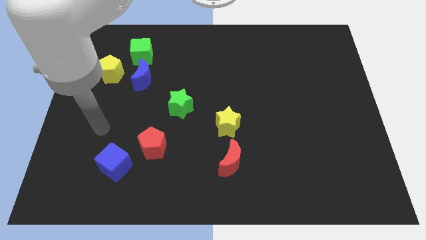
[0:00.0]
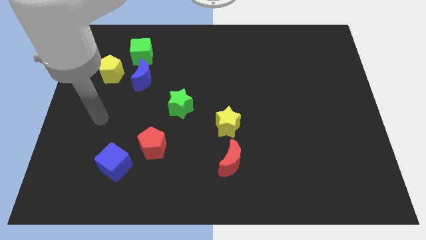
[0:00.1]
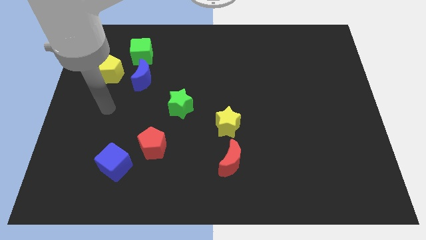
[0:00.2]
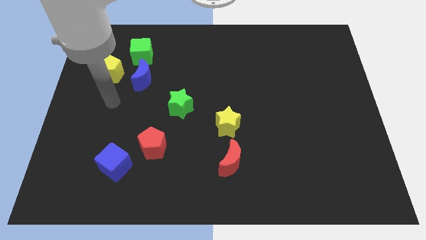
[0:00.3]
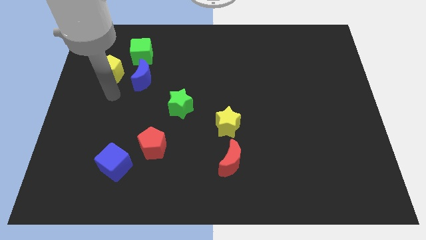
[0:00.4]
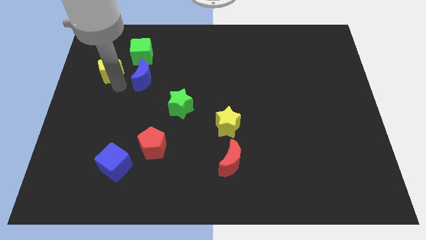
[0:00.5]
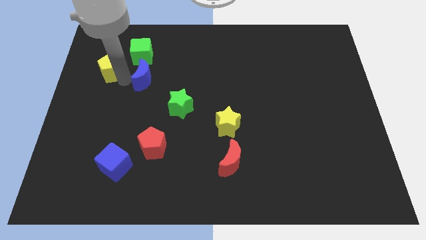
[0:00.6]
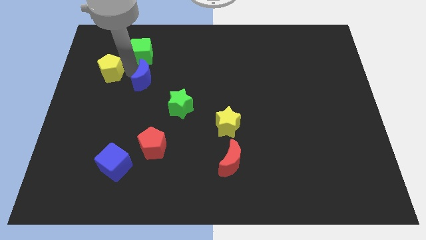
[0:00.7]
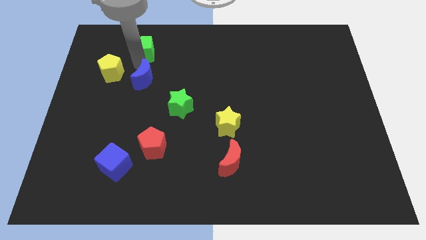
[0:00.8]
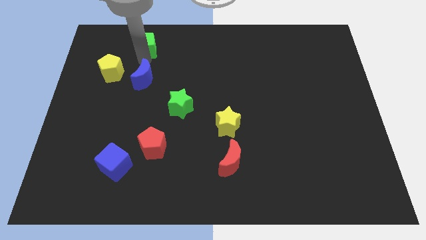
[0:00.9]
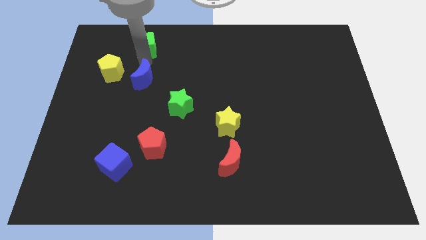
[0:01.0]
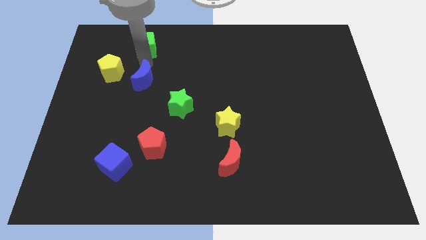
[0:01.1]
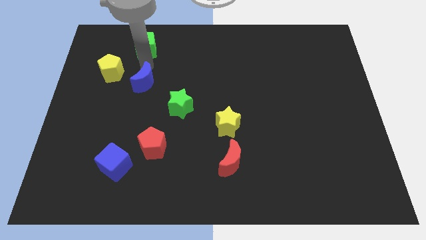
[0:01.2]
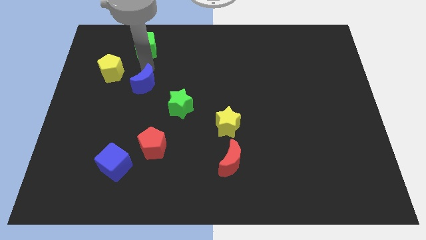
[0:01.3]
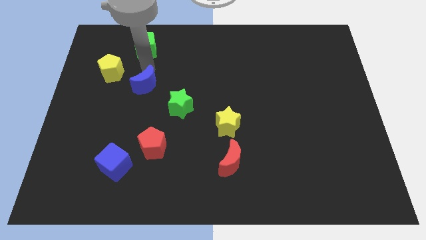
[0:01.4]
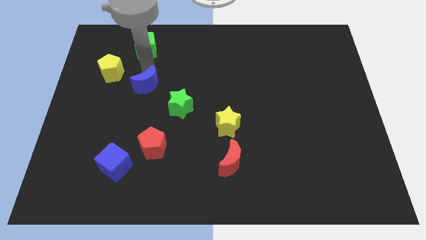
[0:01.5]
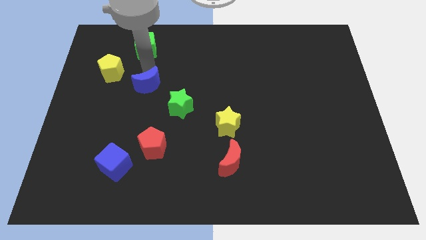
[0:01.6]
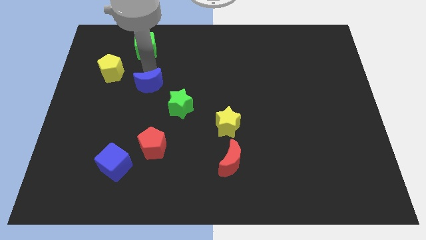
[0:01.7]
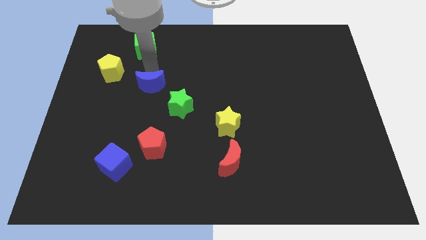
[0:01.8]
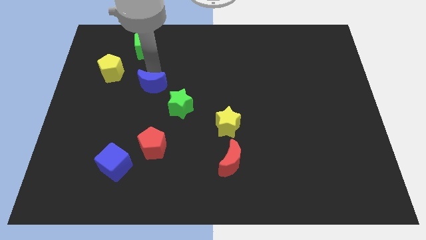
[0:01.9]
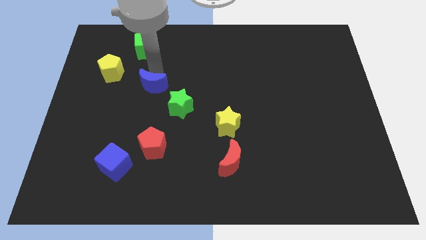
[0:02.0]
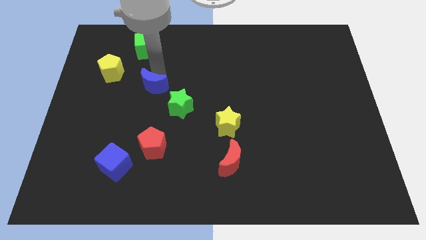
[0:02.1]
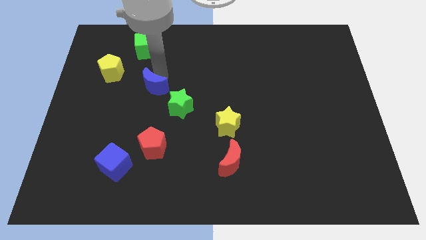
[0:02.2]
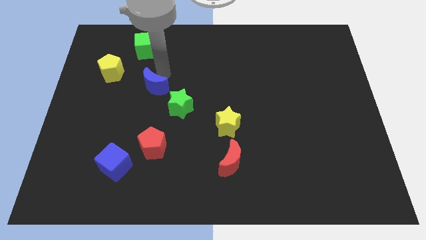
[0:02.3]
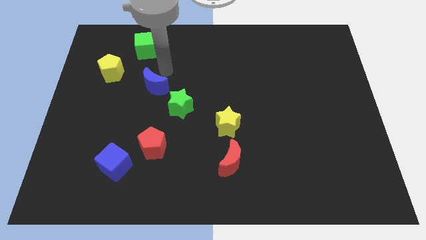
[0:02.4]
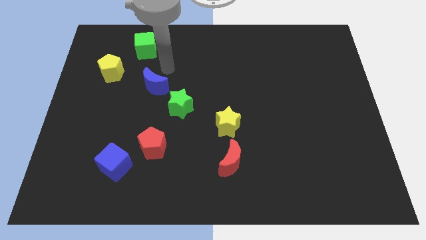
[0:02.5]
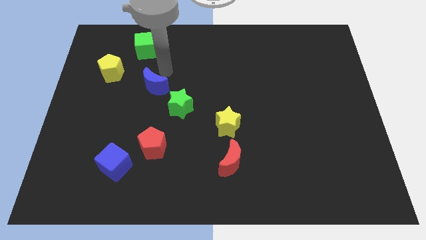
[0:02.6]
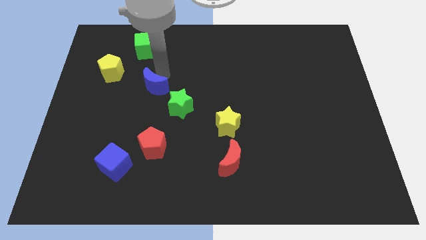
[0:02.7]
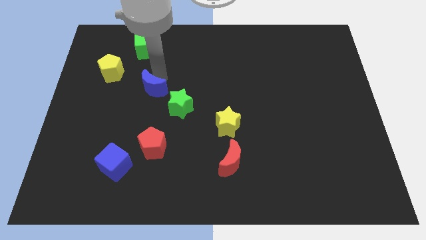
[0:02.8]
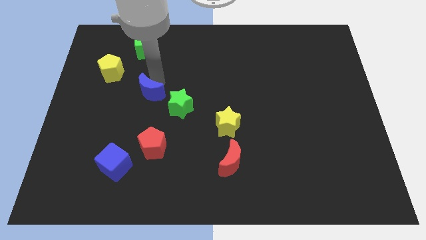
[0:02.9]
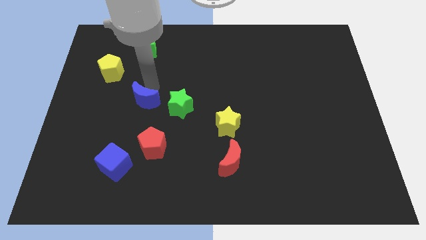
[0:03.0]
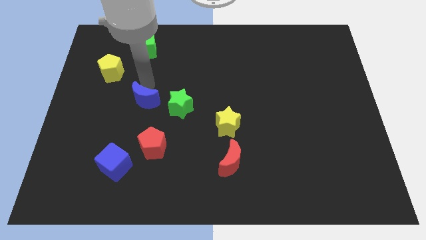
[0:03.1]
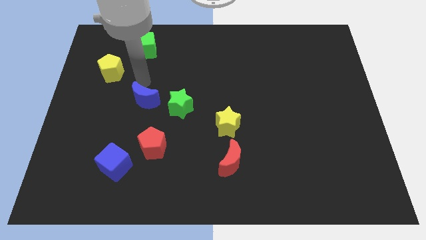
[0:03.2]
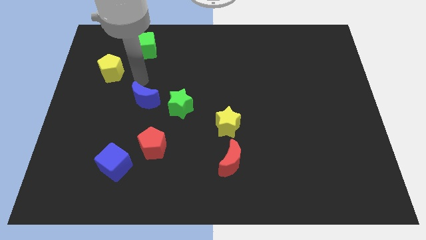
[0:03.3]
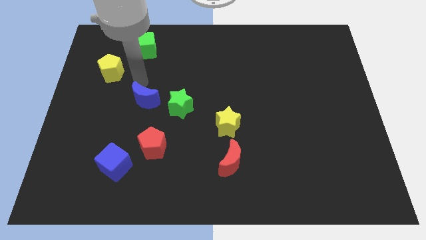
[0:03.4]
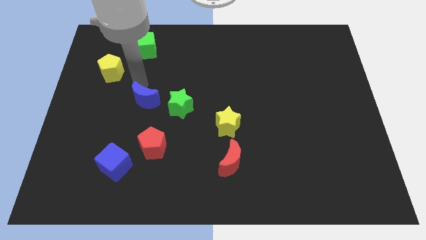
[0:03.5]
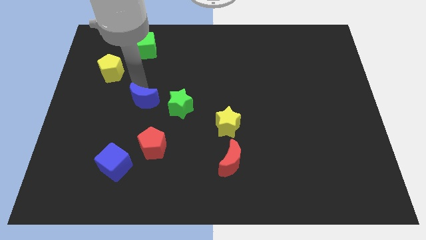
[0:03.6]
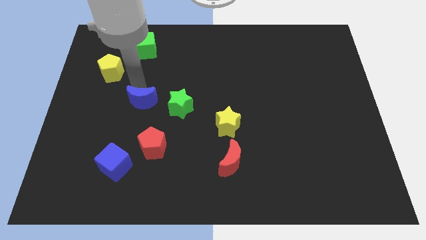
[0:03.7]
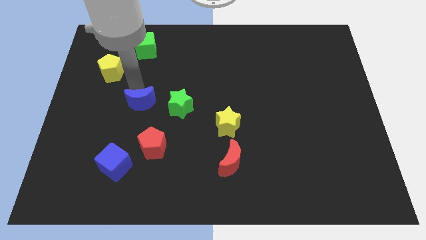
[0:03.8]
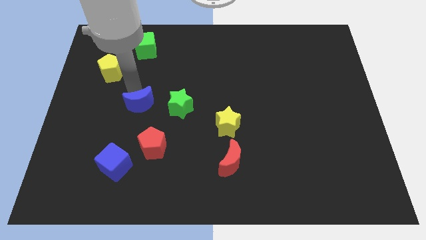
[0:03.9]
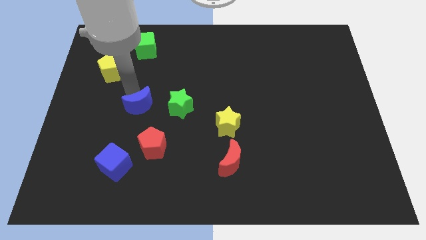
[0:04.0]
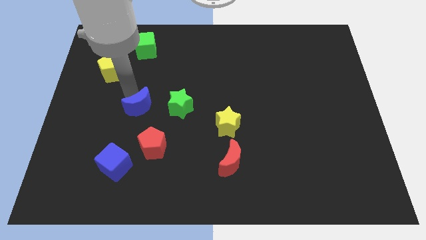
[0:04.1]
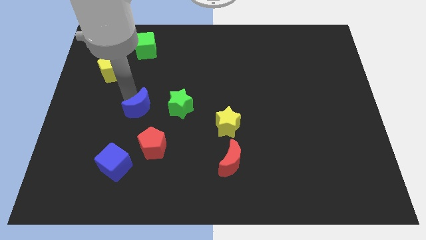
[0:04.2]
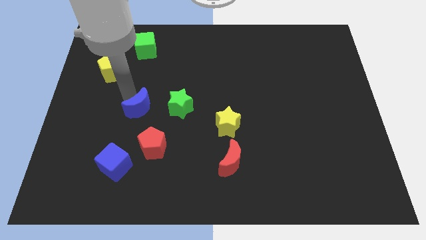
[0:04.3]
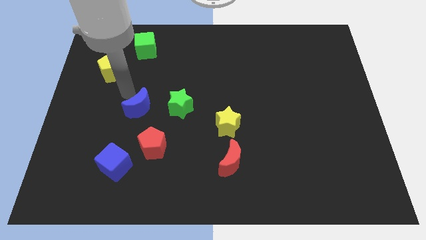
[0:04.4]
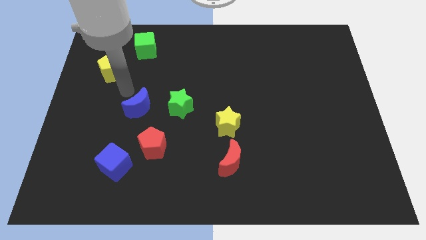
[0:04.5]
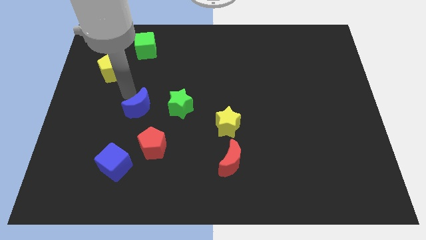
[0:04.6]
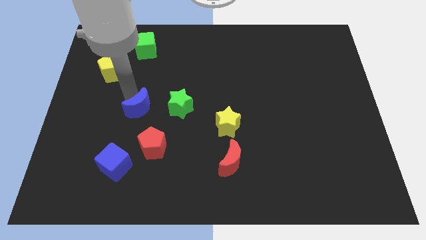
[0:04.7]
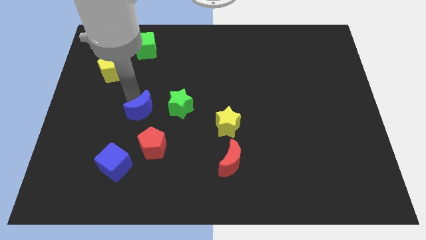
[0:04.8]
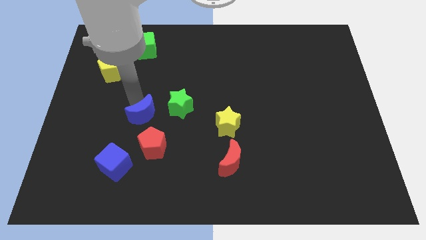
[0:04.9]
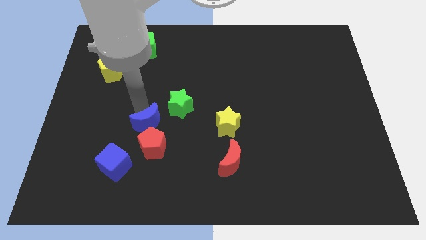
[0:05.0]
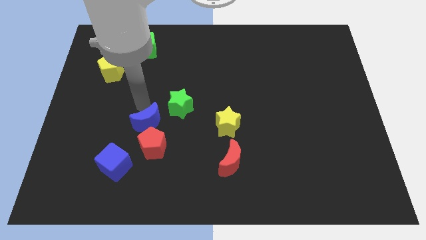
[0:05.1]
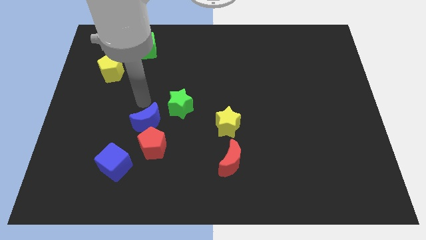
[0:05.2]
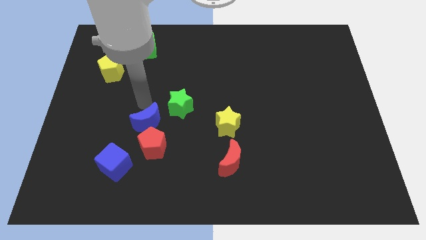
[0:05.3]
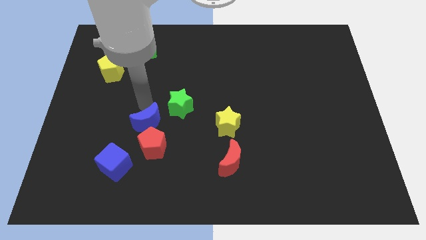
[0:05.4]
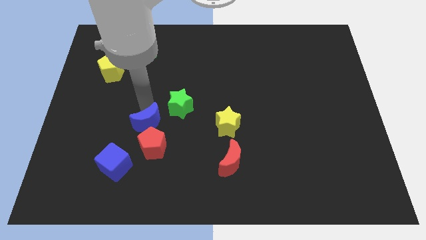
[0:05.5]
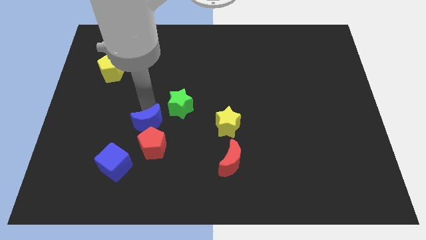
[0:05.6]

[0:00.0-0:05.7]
push the blue moon next to the red pentagon

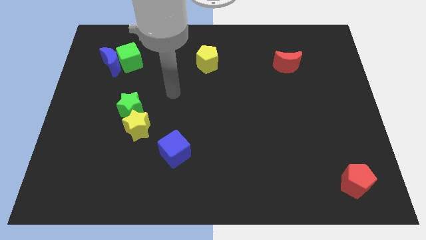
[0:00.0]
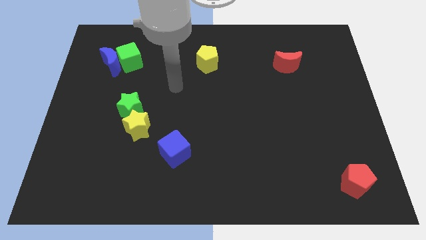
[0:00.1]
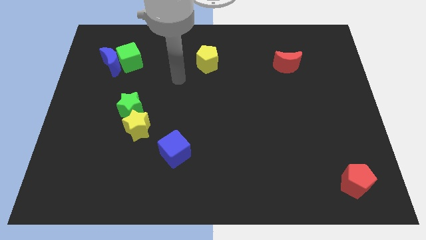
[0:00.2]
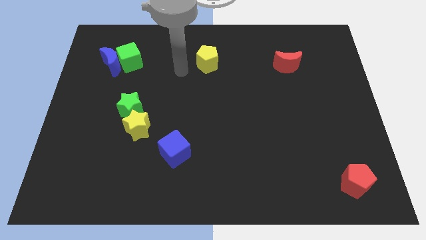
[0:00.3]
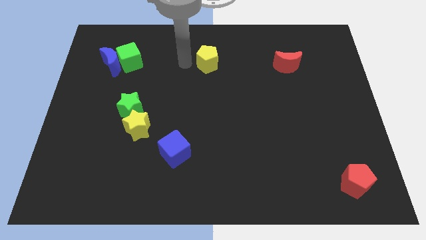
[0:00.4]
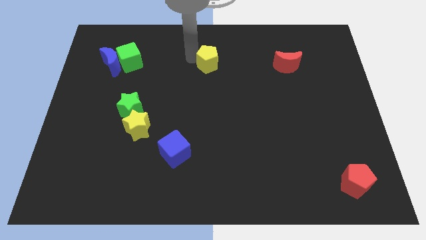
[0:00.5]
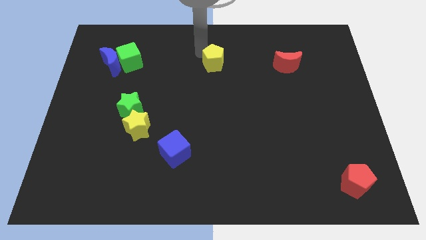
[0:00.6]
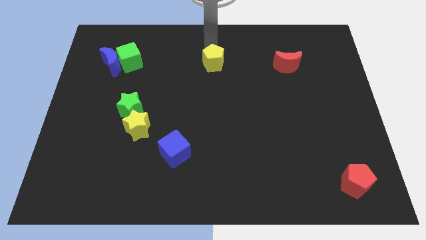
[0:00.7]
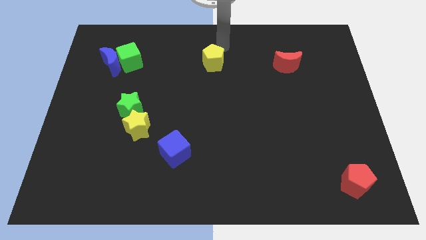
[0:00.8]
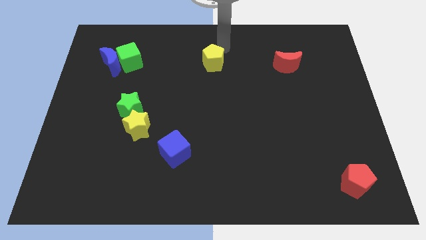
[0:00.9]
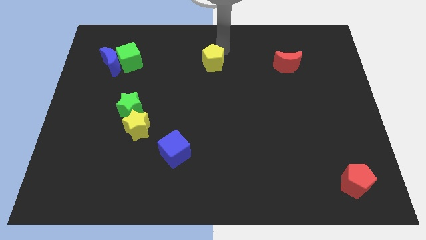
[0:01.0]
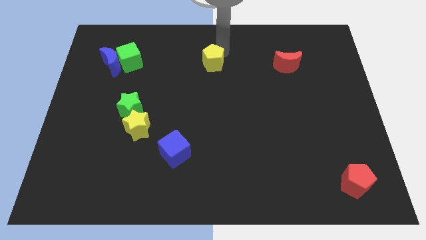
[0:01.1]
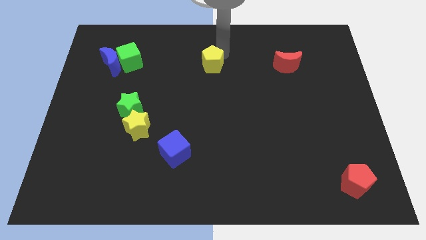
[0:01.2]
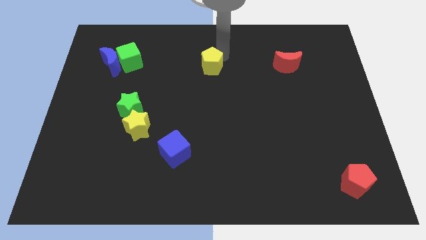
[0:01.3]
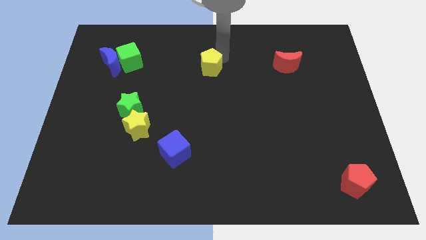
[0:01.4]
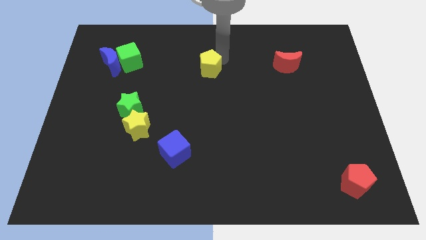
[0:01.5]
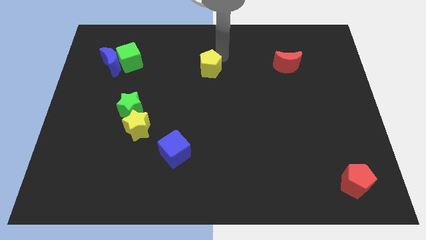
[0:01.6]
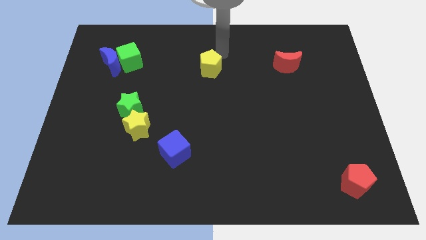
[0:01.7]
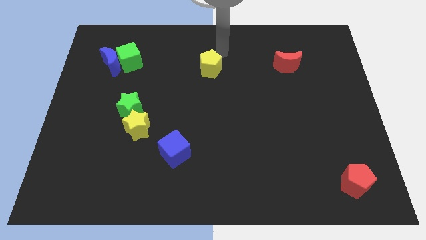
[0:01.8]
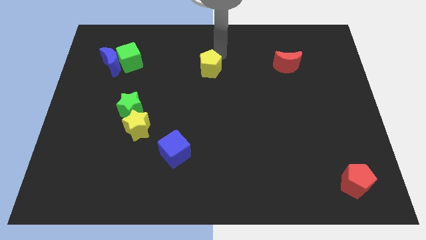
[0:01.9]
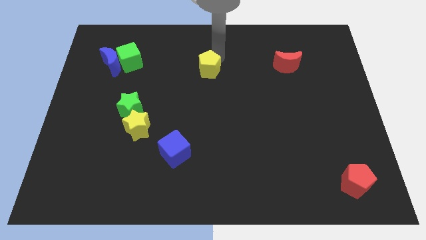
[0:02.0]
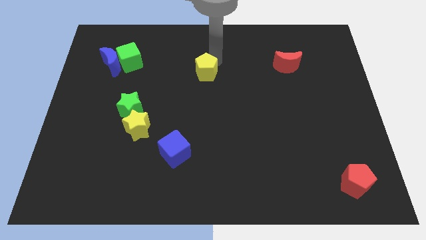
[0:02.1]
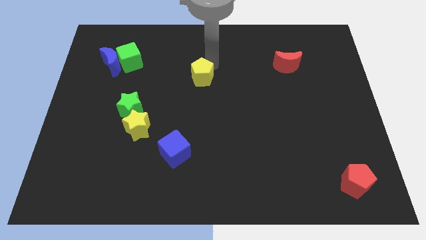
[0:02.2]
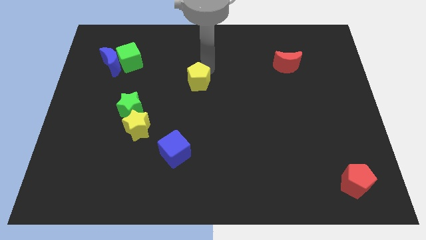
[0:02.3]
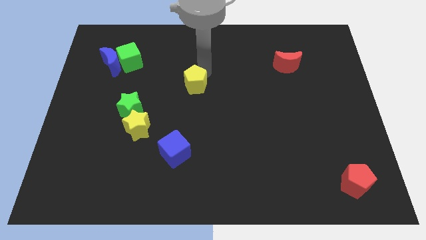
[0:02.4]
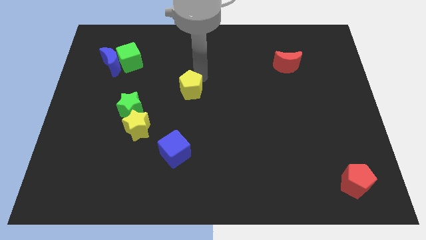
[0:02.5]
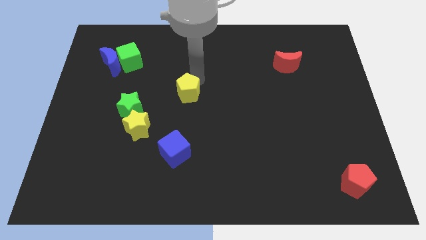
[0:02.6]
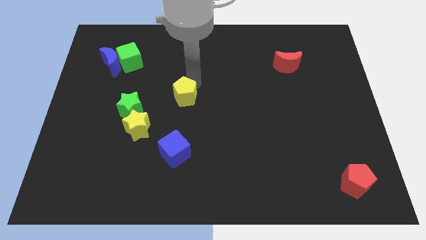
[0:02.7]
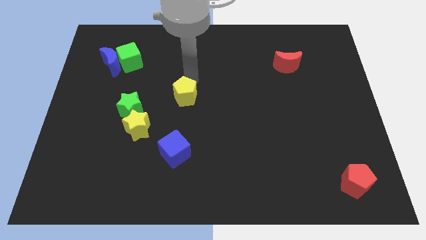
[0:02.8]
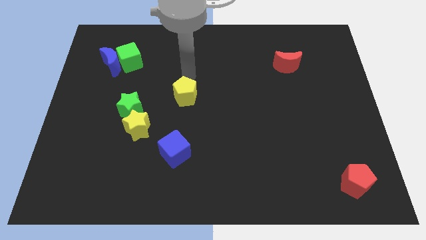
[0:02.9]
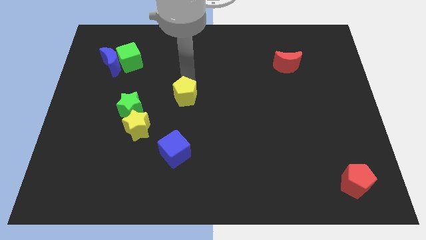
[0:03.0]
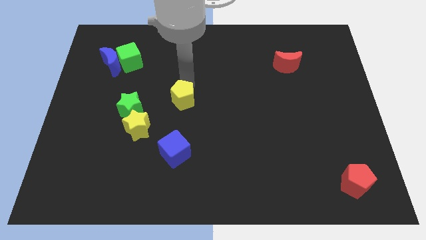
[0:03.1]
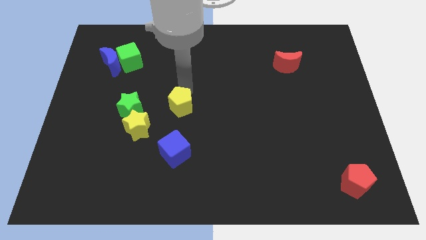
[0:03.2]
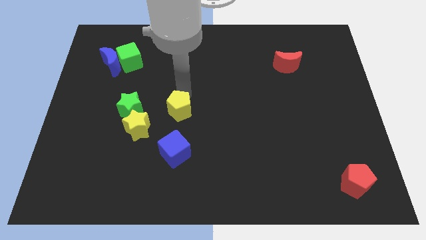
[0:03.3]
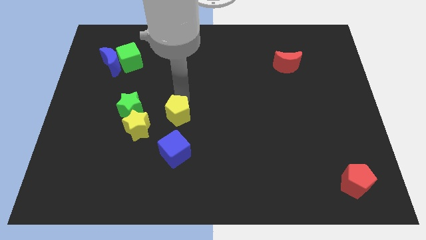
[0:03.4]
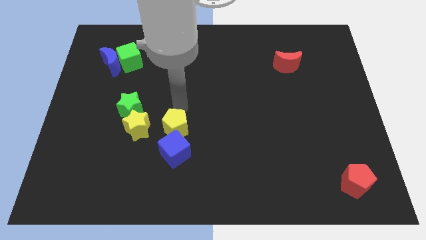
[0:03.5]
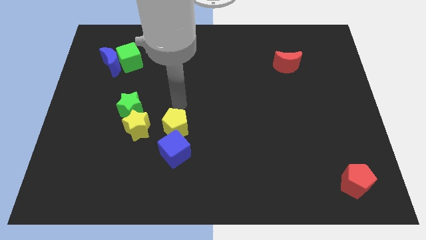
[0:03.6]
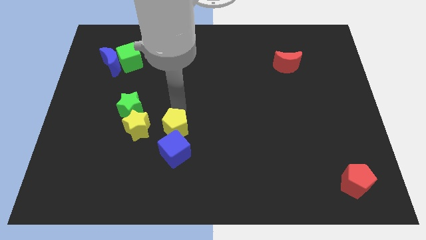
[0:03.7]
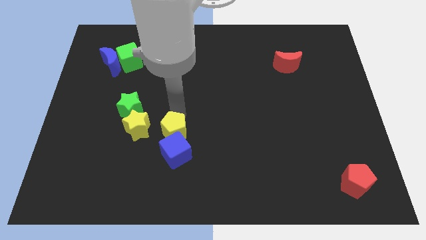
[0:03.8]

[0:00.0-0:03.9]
put the yellow pentagon next to the blue cube
